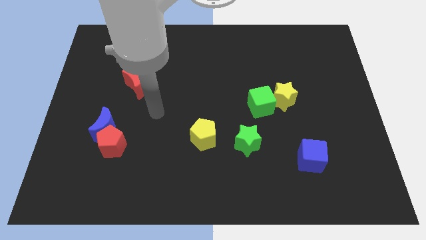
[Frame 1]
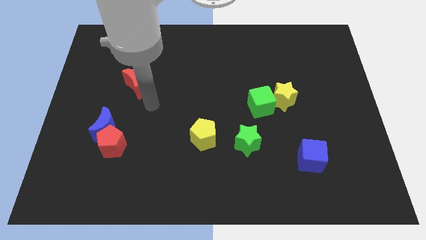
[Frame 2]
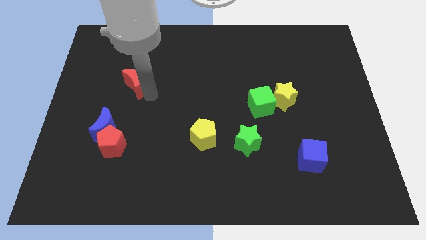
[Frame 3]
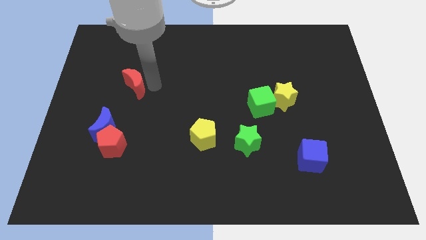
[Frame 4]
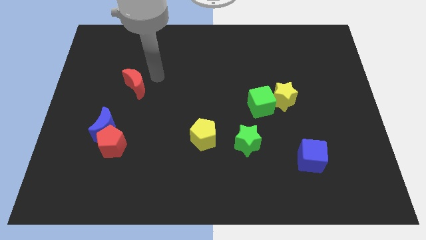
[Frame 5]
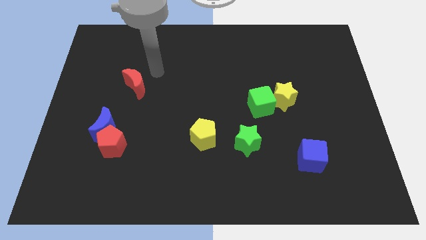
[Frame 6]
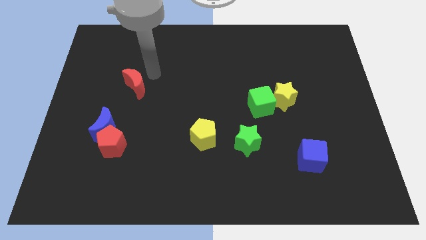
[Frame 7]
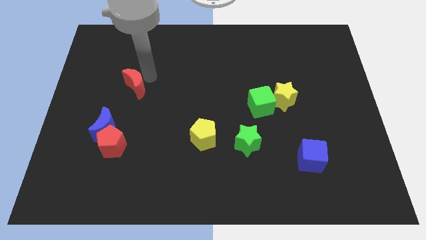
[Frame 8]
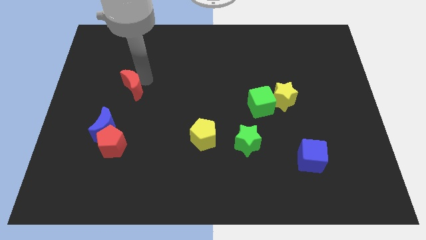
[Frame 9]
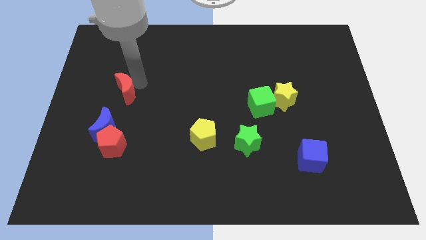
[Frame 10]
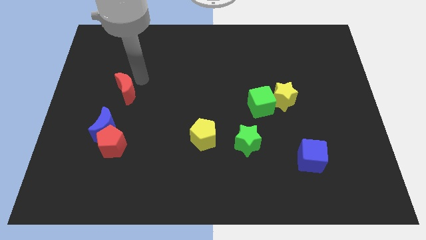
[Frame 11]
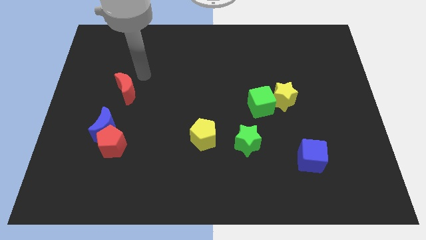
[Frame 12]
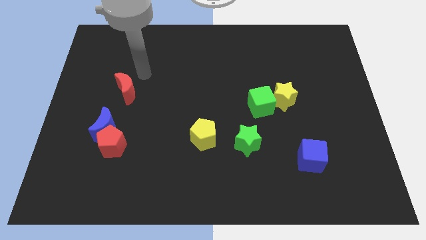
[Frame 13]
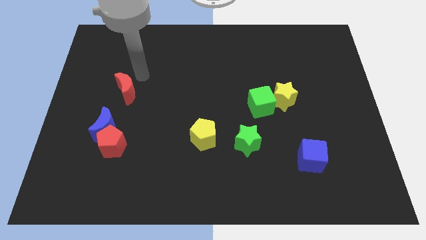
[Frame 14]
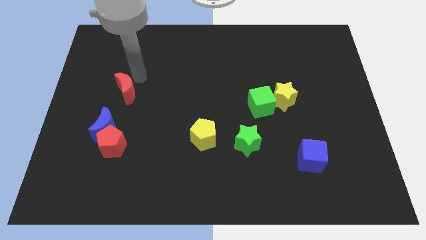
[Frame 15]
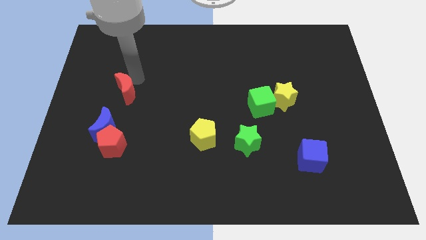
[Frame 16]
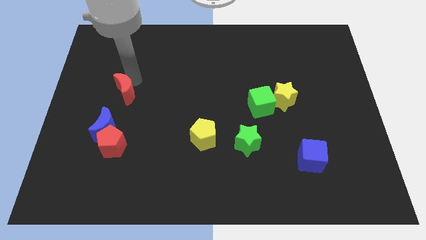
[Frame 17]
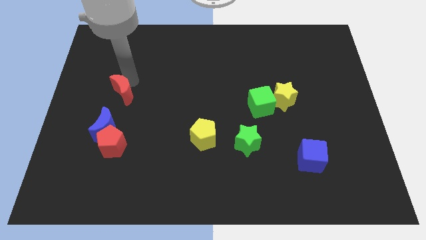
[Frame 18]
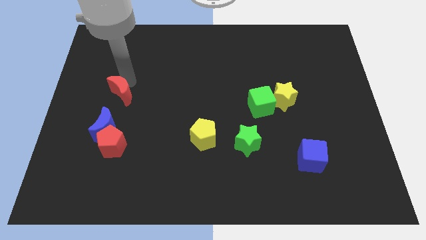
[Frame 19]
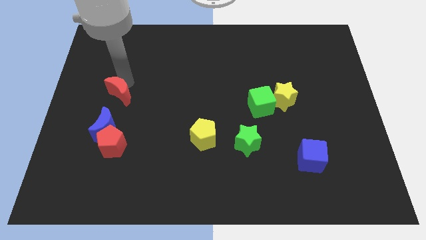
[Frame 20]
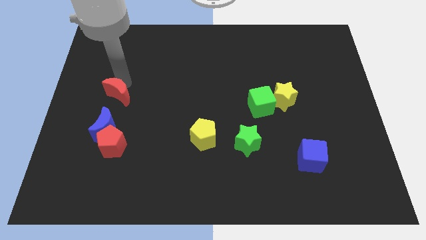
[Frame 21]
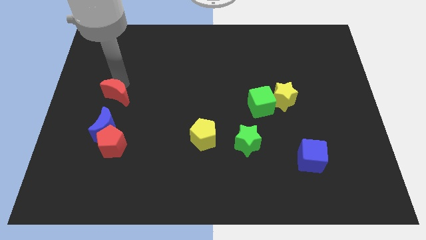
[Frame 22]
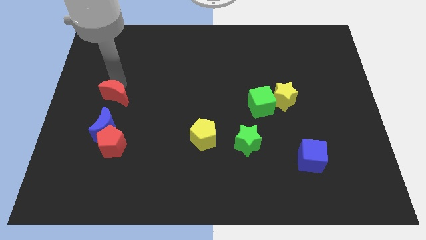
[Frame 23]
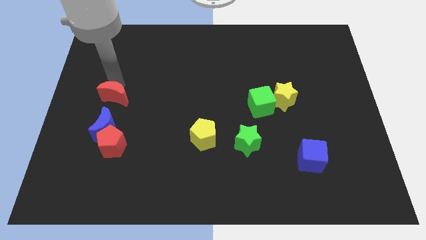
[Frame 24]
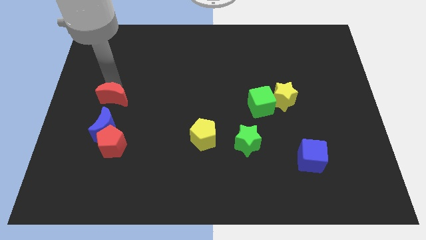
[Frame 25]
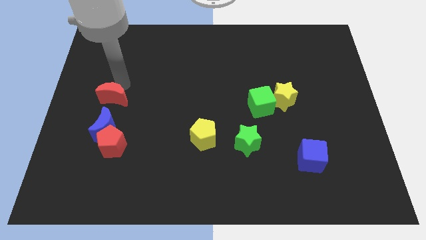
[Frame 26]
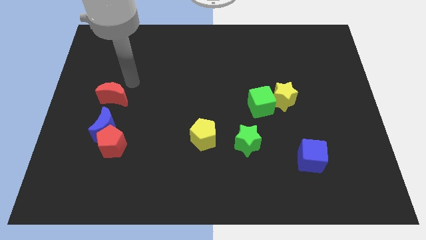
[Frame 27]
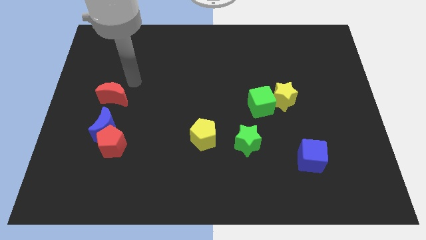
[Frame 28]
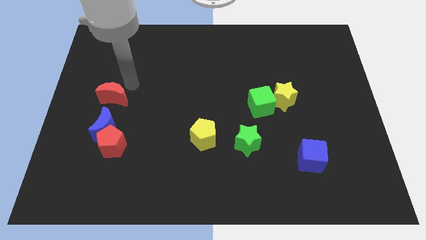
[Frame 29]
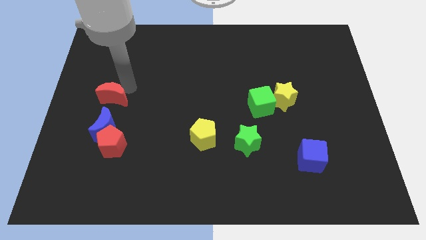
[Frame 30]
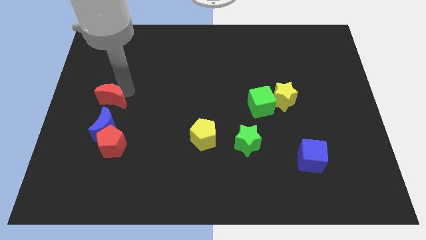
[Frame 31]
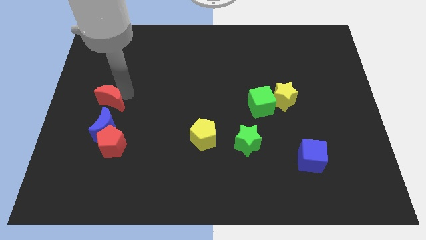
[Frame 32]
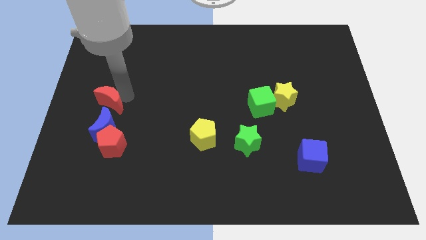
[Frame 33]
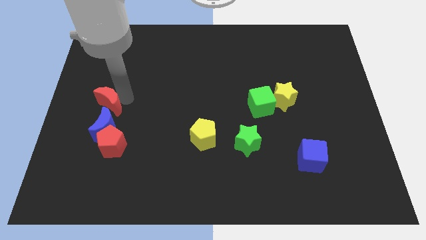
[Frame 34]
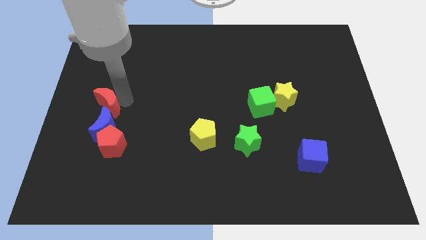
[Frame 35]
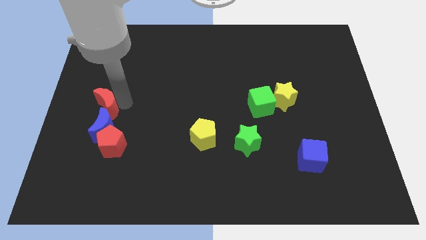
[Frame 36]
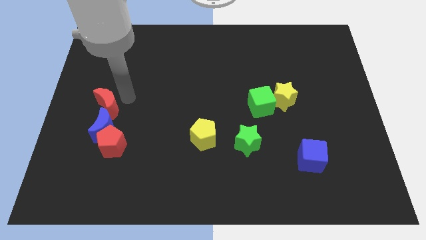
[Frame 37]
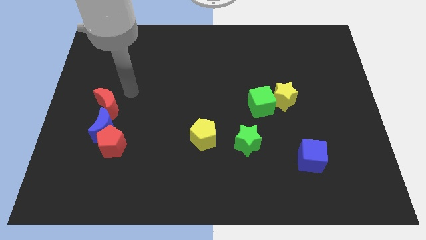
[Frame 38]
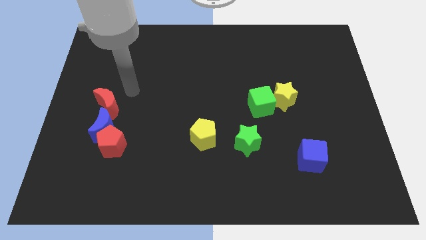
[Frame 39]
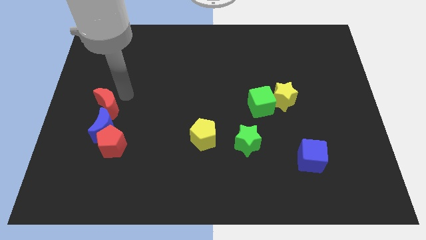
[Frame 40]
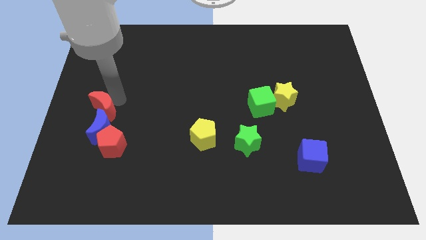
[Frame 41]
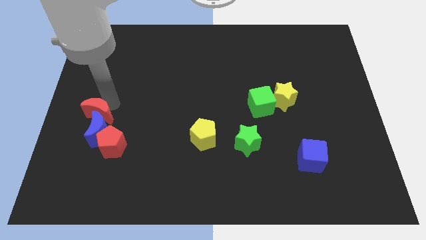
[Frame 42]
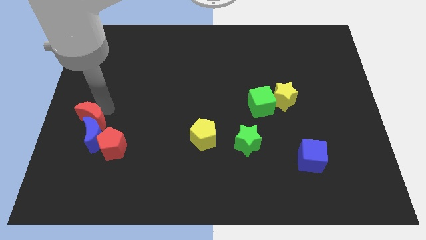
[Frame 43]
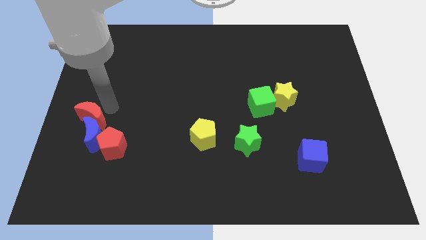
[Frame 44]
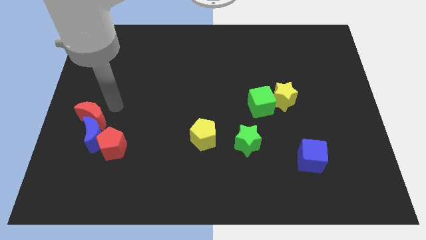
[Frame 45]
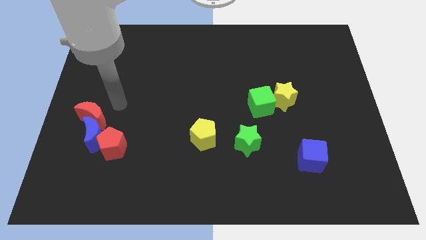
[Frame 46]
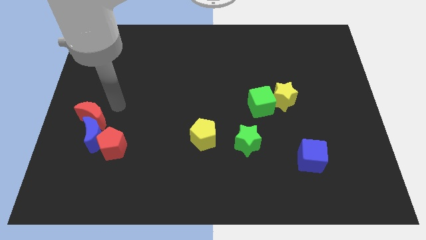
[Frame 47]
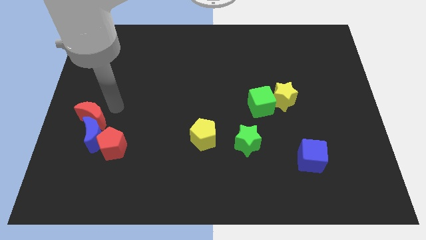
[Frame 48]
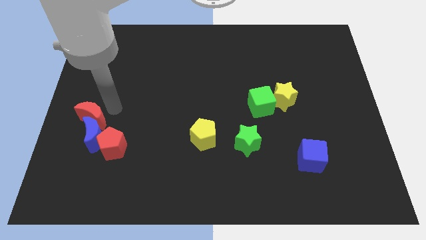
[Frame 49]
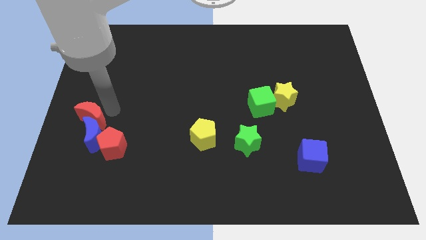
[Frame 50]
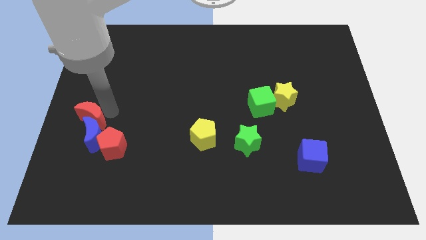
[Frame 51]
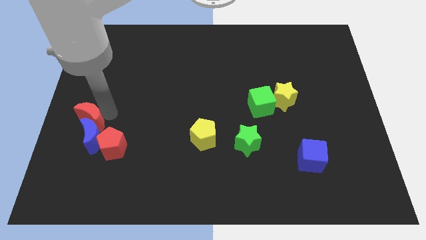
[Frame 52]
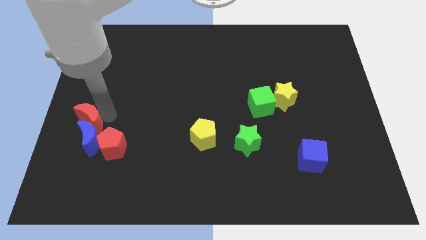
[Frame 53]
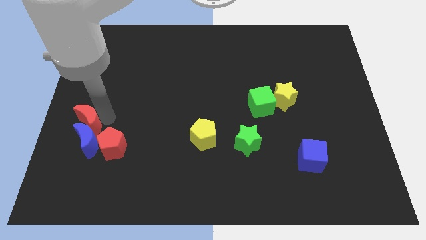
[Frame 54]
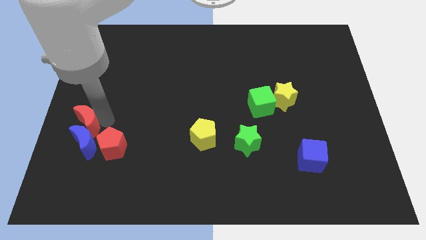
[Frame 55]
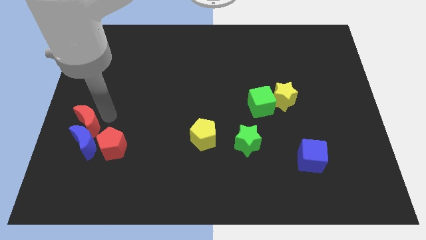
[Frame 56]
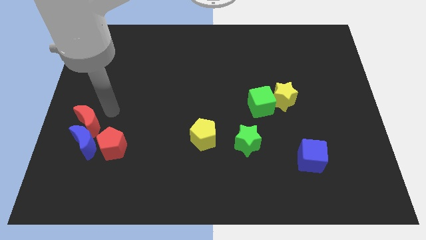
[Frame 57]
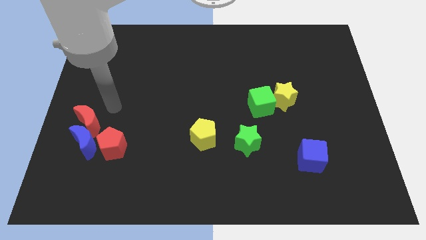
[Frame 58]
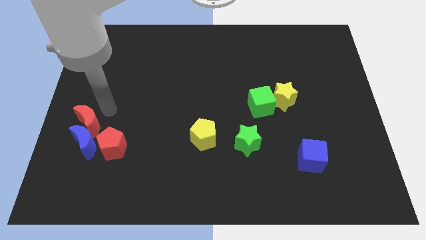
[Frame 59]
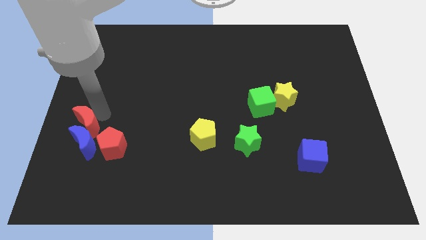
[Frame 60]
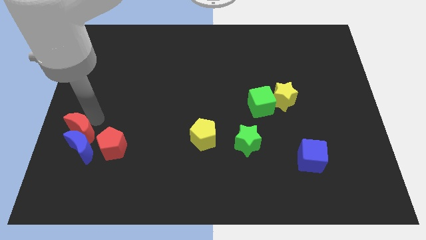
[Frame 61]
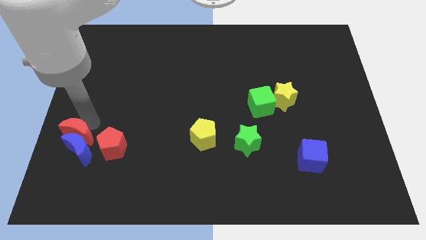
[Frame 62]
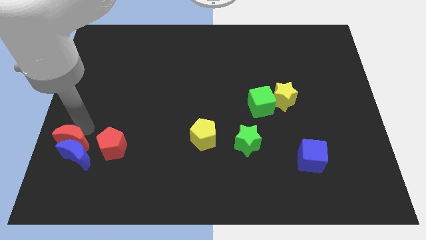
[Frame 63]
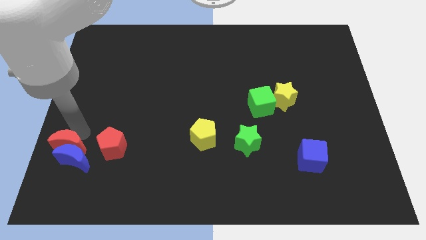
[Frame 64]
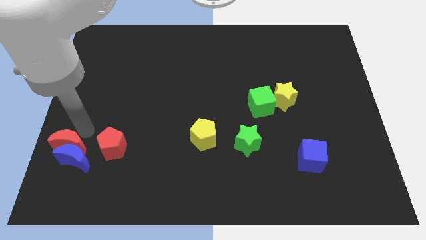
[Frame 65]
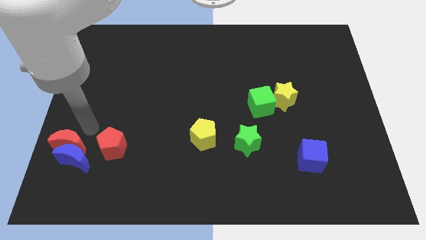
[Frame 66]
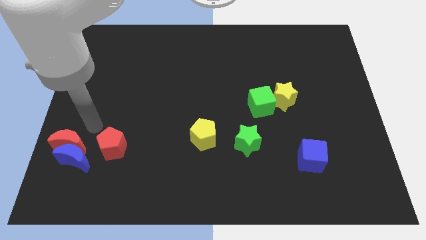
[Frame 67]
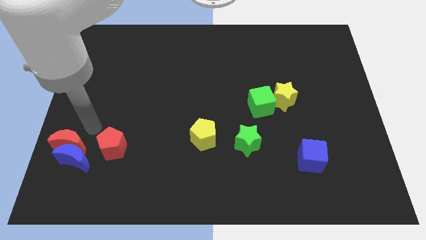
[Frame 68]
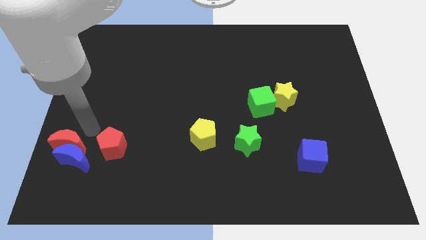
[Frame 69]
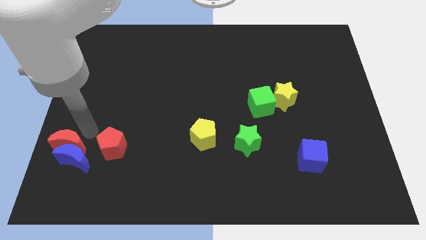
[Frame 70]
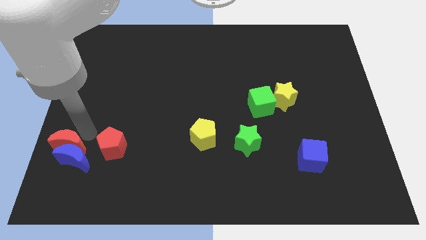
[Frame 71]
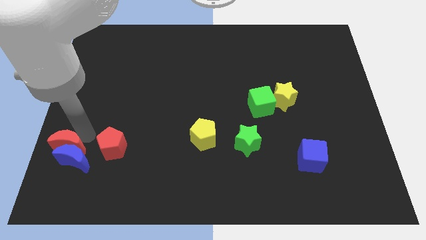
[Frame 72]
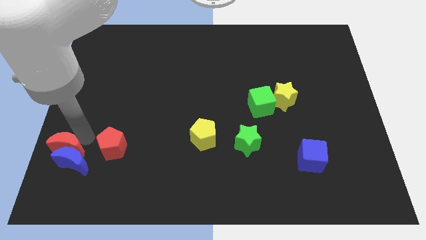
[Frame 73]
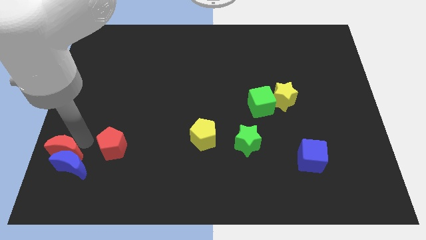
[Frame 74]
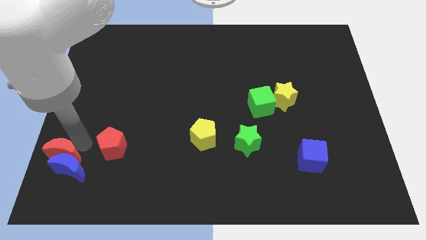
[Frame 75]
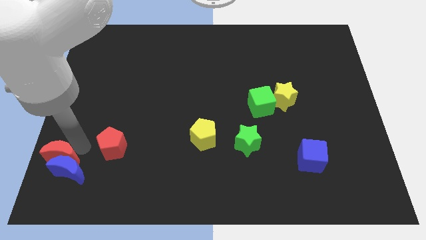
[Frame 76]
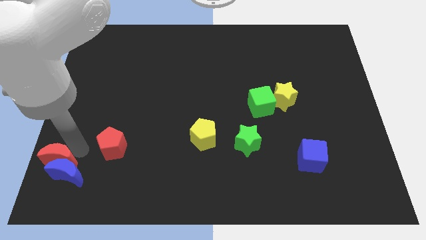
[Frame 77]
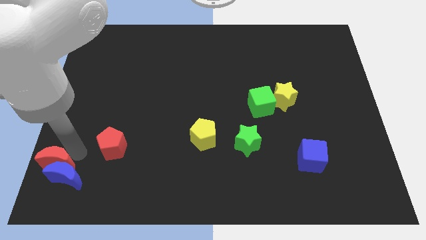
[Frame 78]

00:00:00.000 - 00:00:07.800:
slide the red moon to the bottom left
